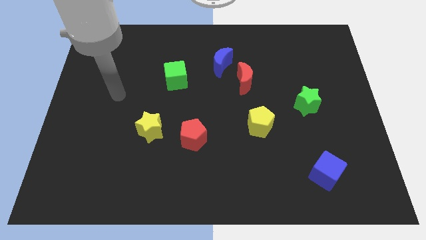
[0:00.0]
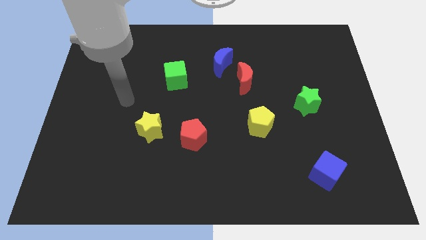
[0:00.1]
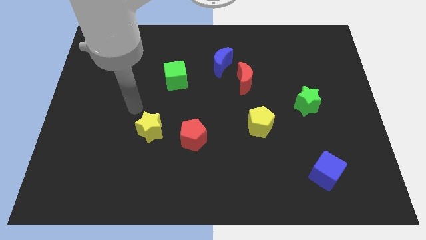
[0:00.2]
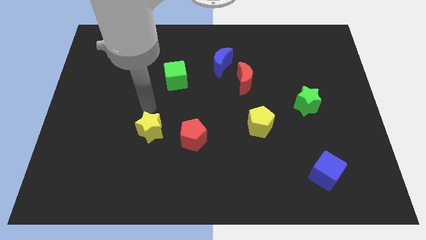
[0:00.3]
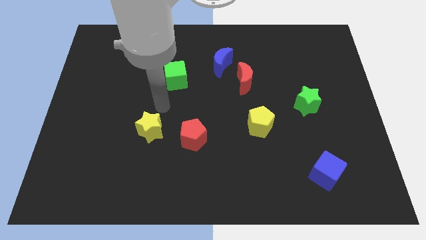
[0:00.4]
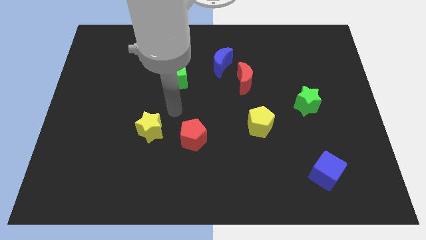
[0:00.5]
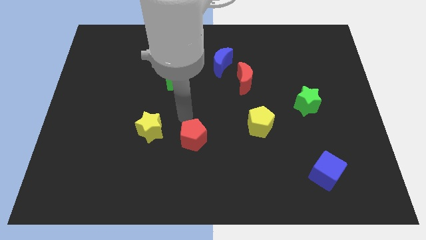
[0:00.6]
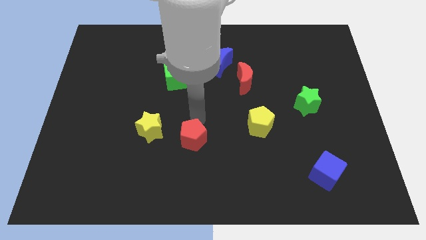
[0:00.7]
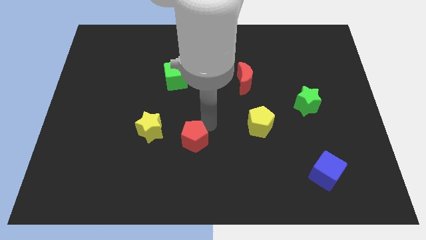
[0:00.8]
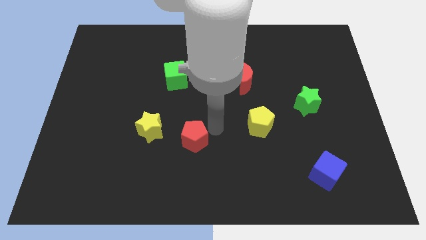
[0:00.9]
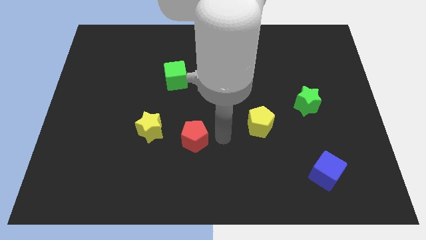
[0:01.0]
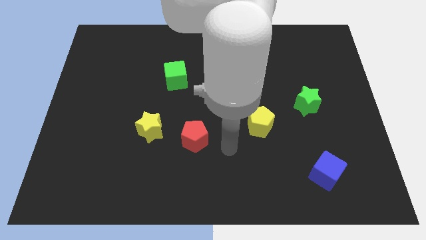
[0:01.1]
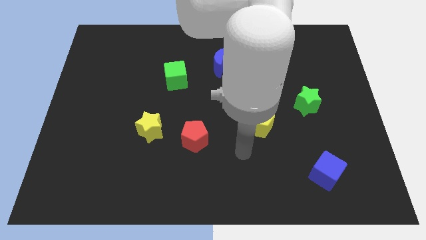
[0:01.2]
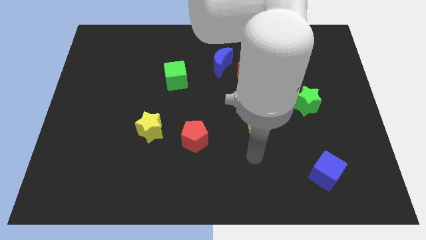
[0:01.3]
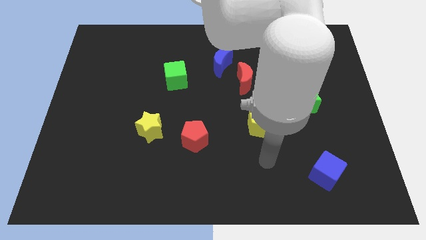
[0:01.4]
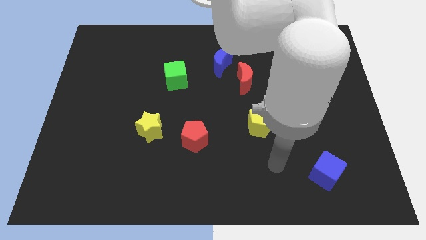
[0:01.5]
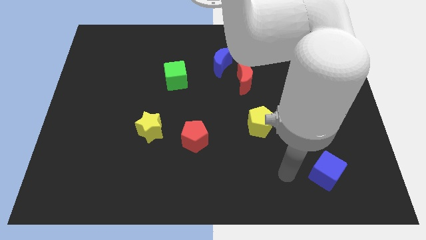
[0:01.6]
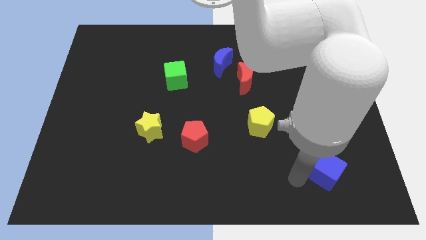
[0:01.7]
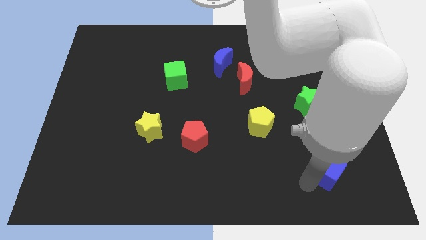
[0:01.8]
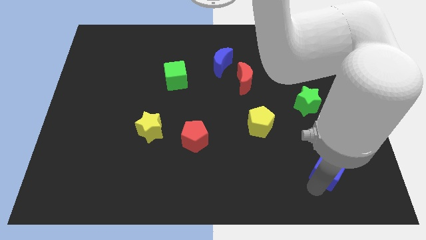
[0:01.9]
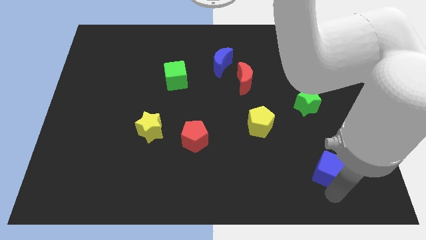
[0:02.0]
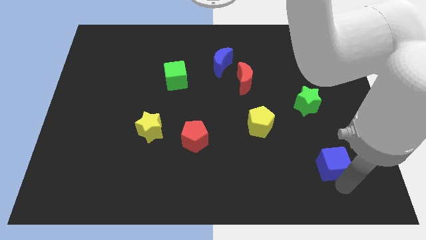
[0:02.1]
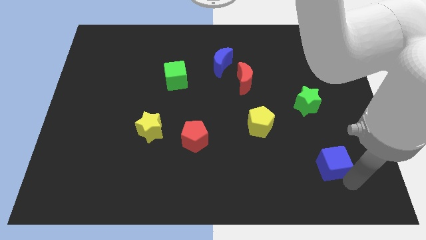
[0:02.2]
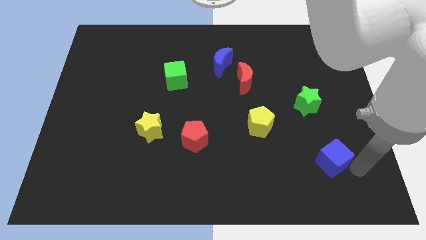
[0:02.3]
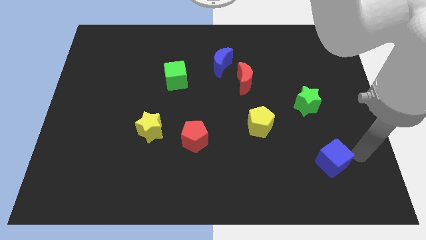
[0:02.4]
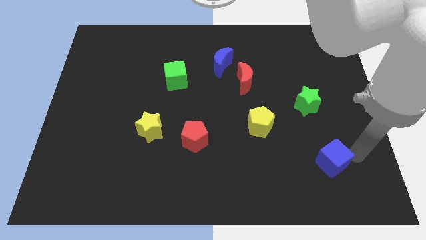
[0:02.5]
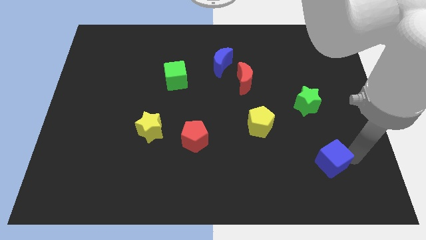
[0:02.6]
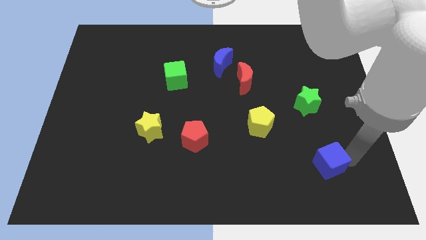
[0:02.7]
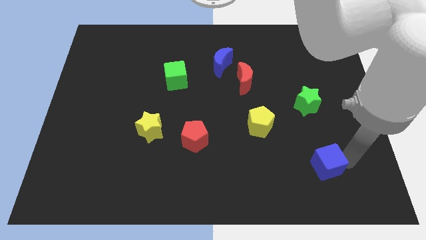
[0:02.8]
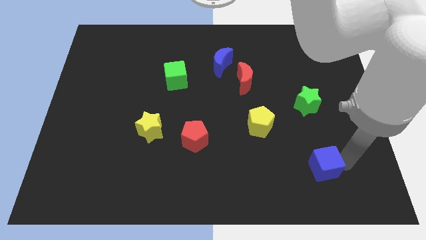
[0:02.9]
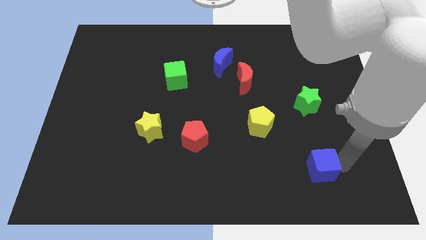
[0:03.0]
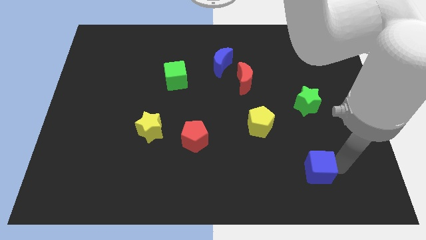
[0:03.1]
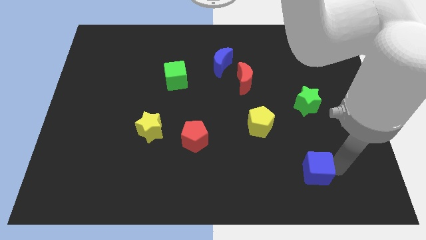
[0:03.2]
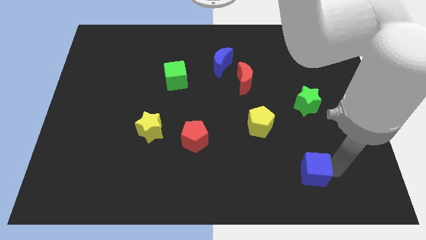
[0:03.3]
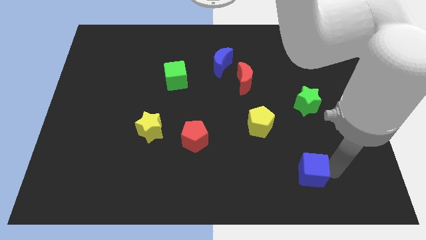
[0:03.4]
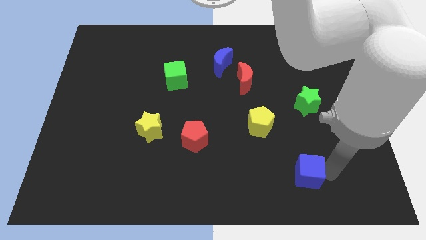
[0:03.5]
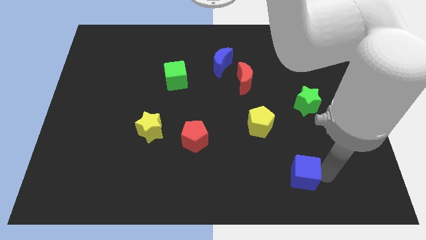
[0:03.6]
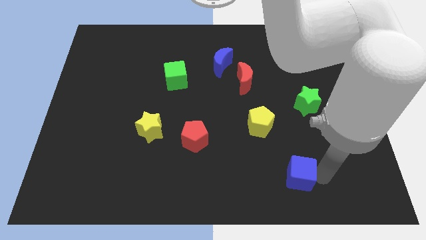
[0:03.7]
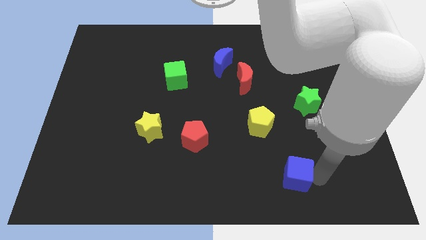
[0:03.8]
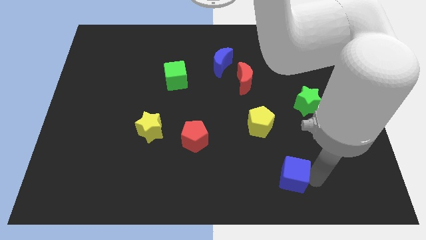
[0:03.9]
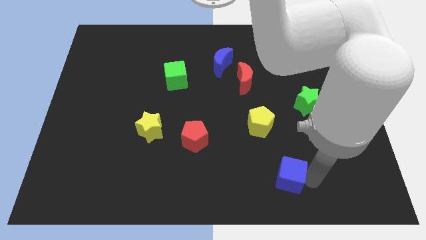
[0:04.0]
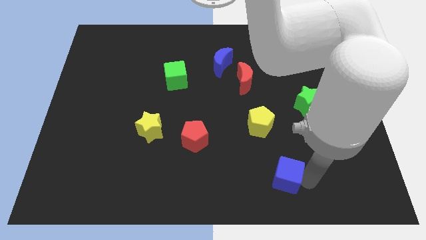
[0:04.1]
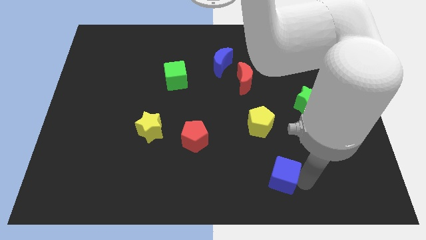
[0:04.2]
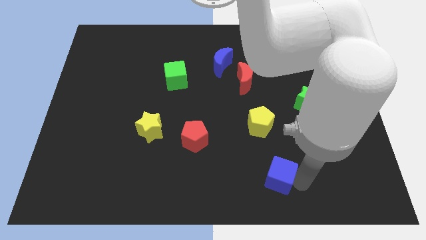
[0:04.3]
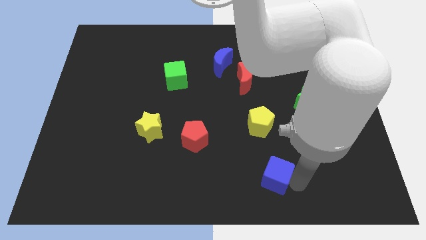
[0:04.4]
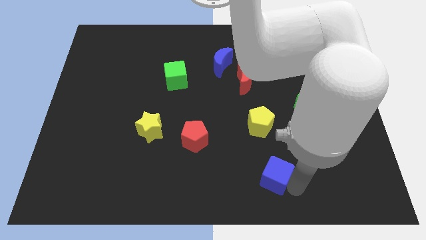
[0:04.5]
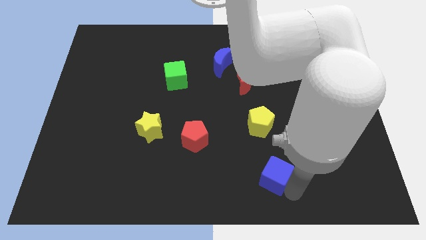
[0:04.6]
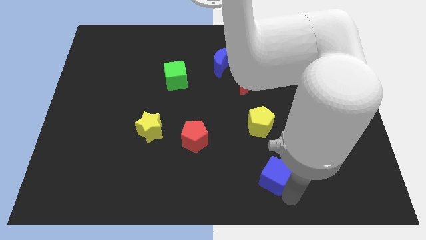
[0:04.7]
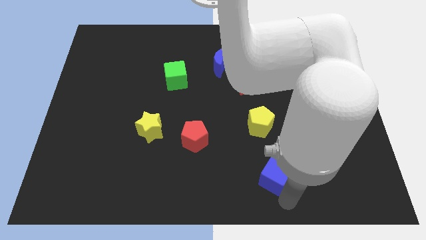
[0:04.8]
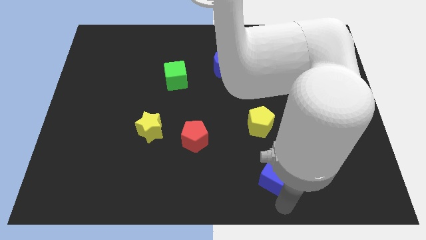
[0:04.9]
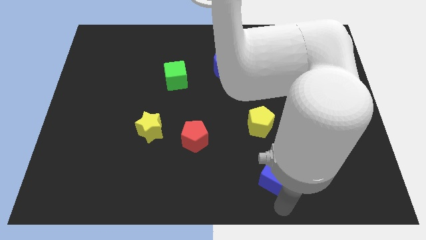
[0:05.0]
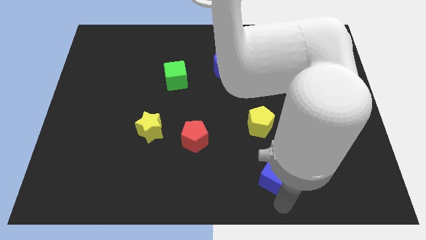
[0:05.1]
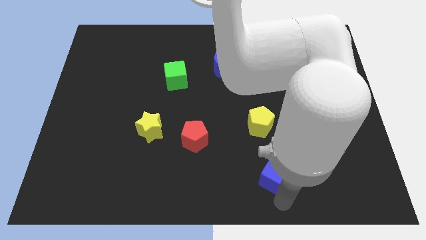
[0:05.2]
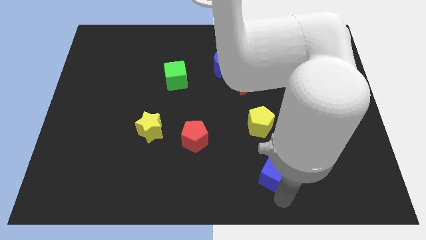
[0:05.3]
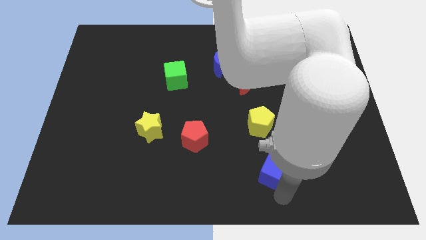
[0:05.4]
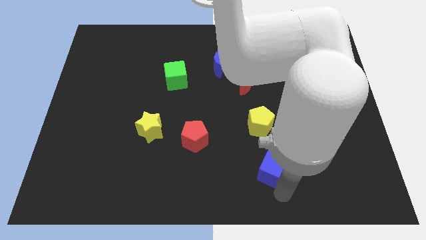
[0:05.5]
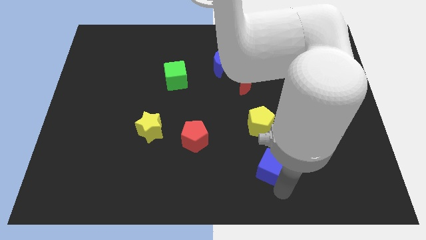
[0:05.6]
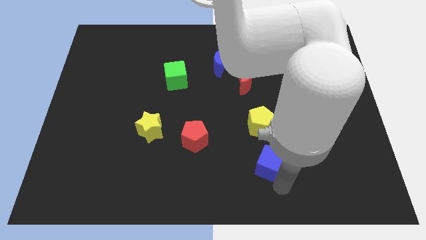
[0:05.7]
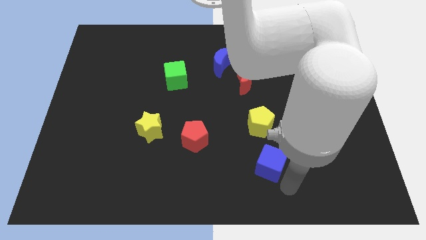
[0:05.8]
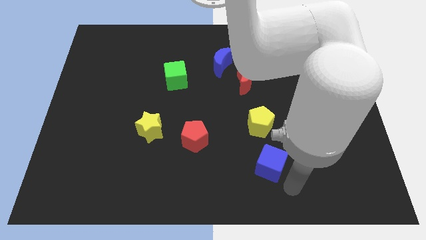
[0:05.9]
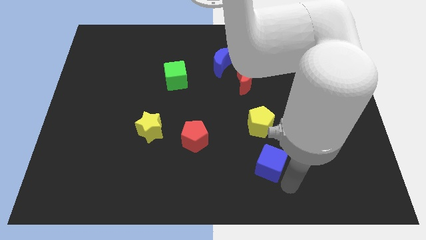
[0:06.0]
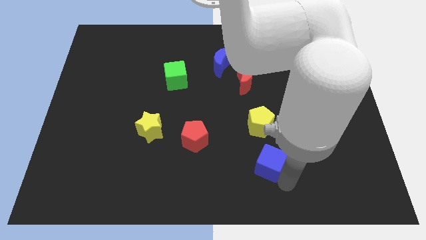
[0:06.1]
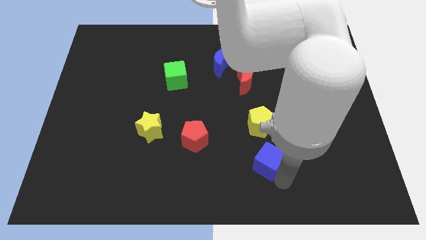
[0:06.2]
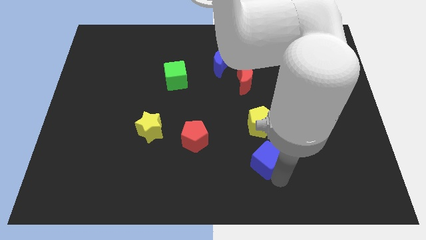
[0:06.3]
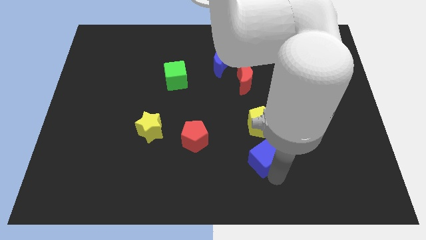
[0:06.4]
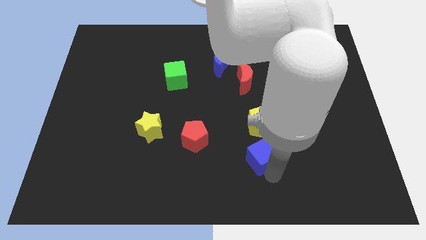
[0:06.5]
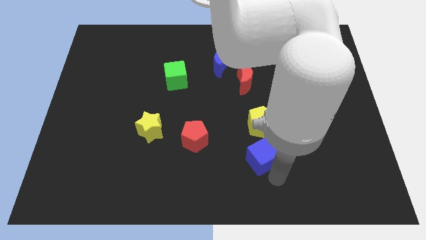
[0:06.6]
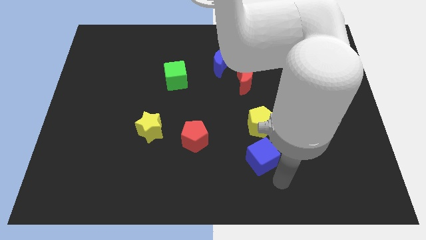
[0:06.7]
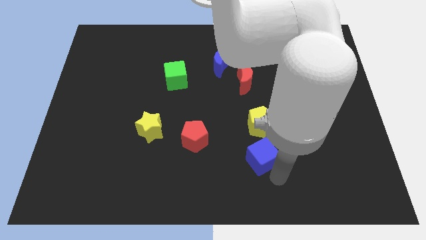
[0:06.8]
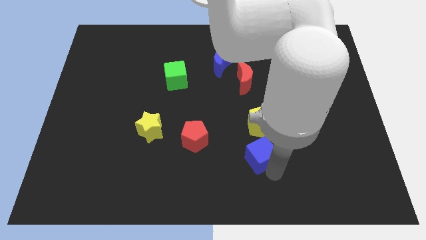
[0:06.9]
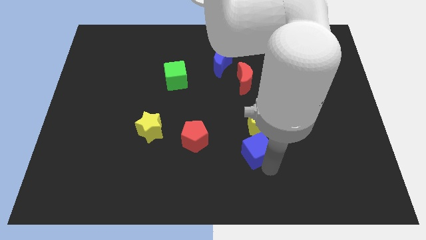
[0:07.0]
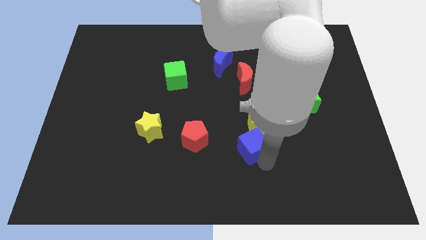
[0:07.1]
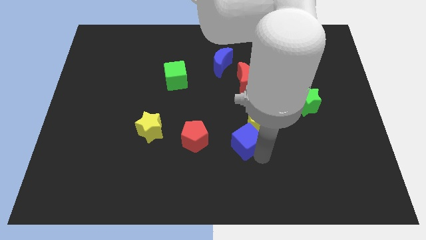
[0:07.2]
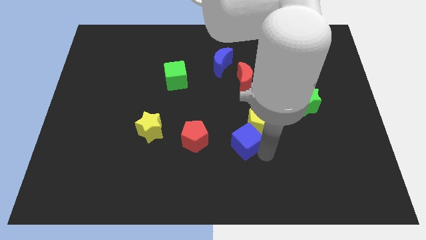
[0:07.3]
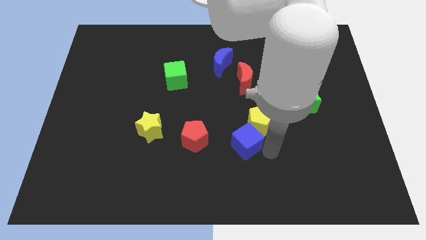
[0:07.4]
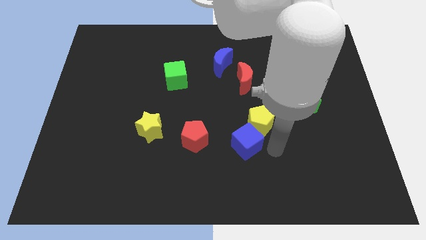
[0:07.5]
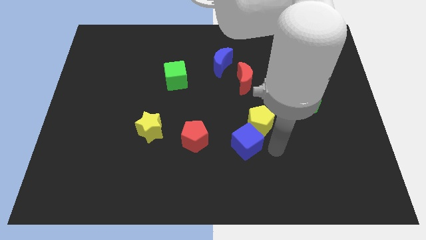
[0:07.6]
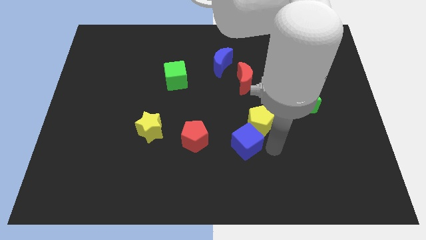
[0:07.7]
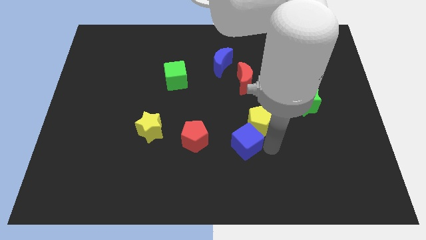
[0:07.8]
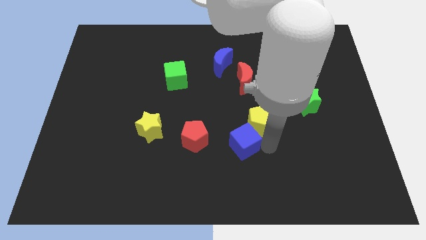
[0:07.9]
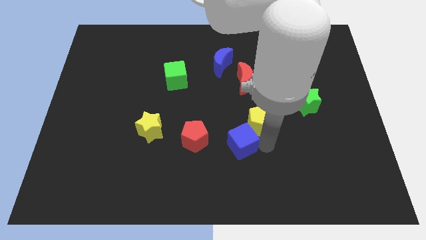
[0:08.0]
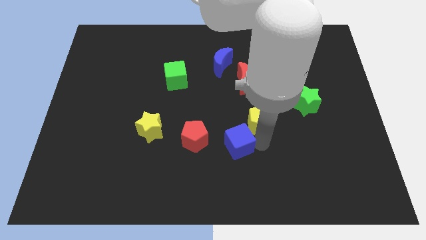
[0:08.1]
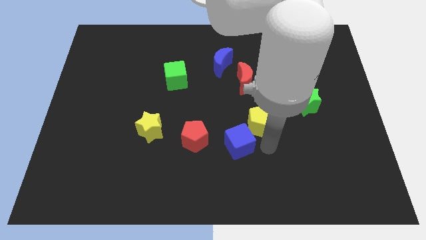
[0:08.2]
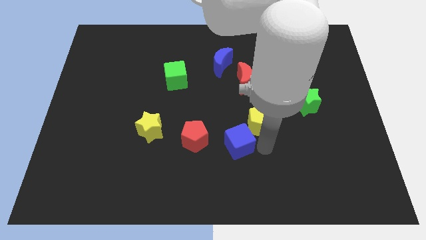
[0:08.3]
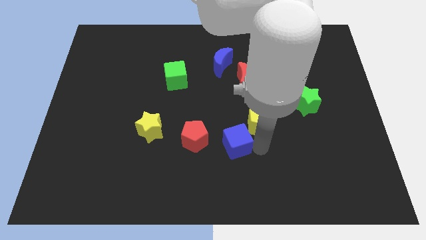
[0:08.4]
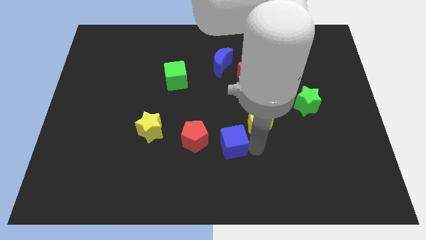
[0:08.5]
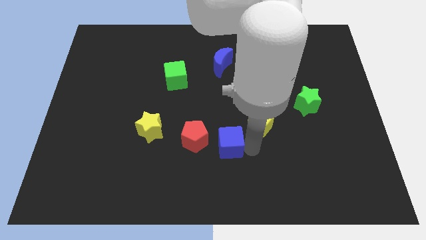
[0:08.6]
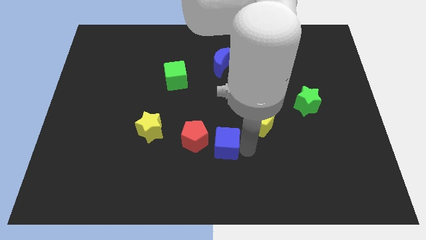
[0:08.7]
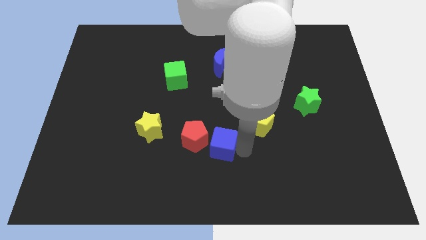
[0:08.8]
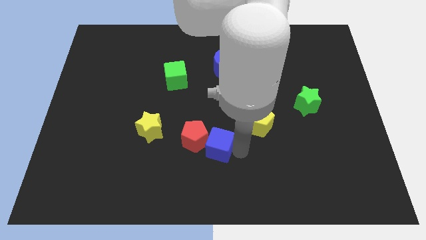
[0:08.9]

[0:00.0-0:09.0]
put the blue cube to the red pentagon
